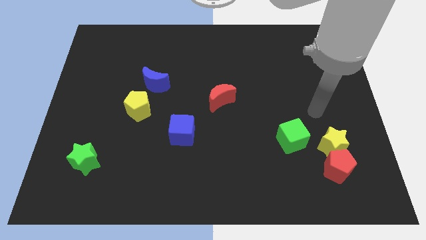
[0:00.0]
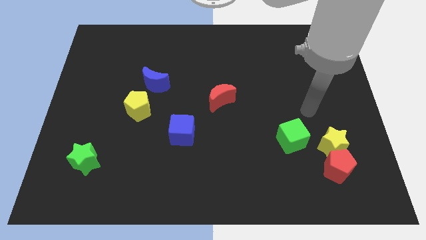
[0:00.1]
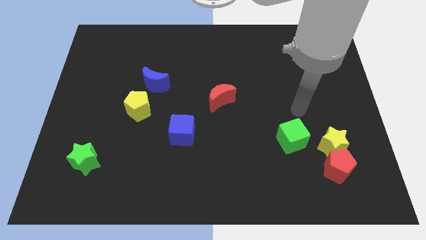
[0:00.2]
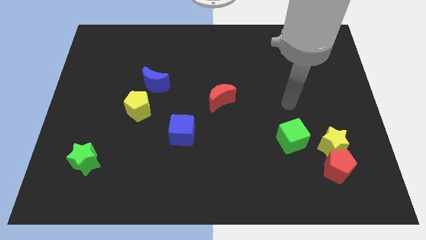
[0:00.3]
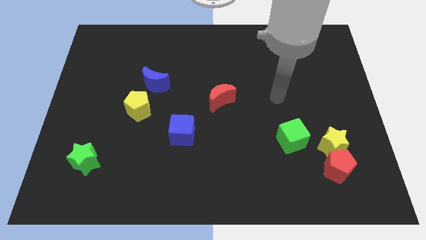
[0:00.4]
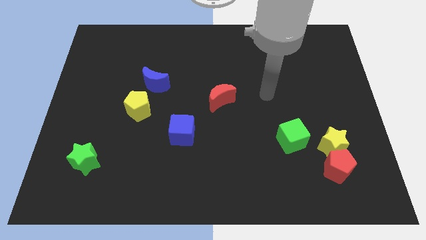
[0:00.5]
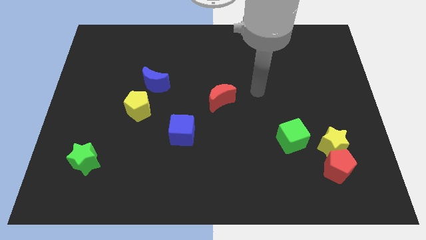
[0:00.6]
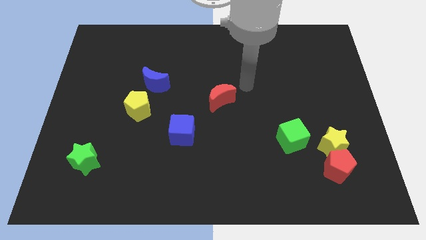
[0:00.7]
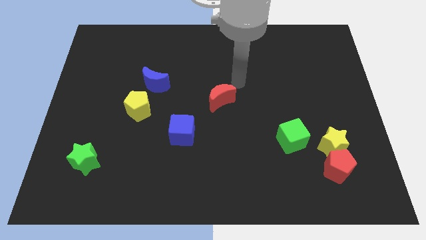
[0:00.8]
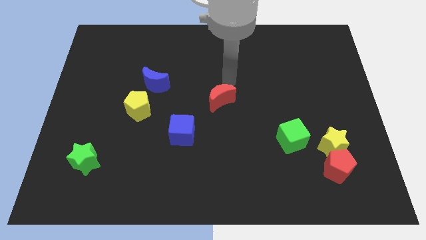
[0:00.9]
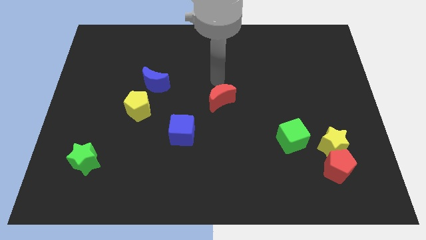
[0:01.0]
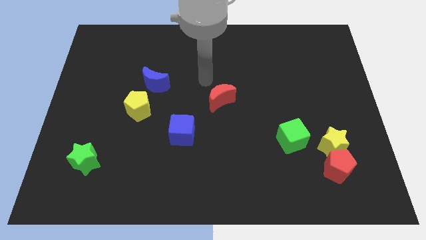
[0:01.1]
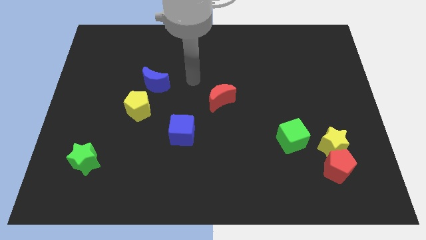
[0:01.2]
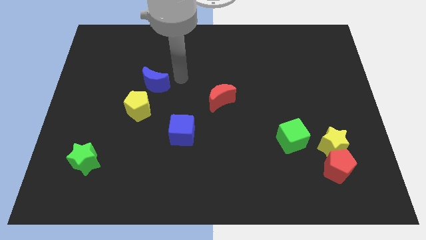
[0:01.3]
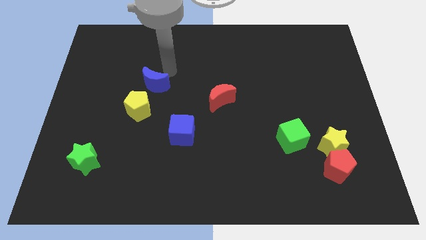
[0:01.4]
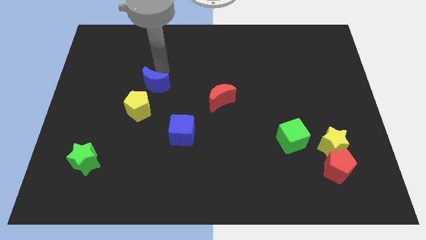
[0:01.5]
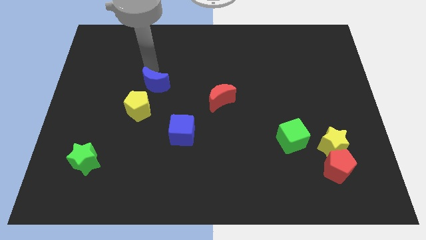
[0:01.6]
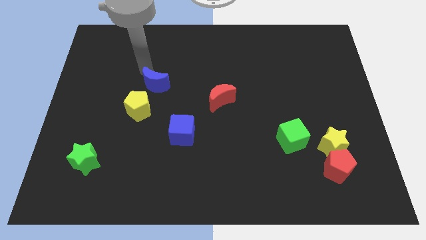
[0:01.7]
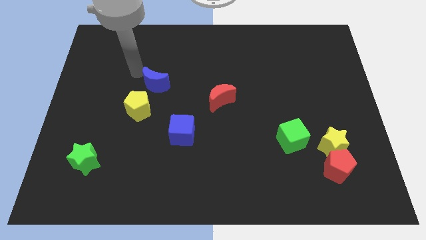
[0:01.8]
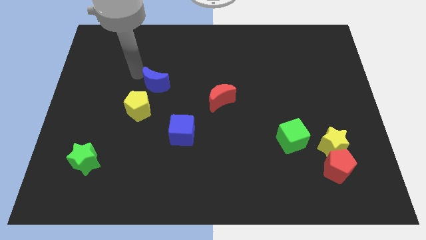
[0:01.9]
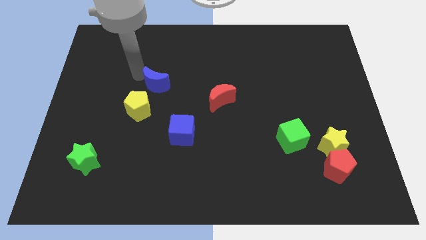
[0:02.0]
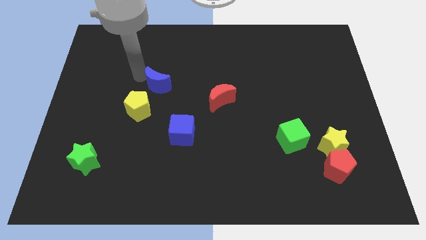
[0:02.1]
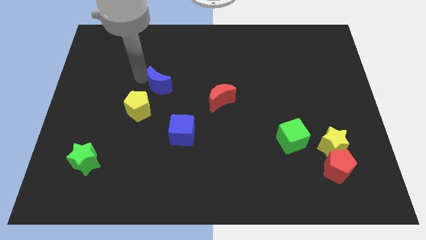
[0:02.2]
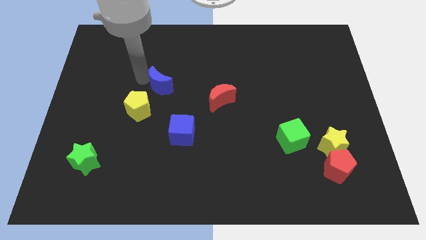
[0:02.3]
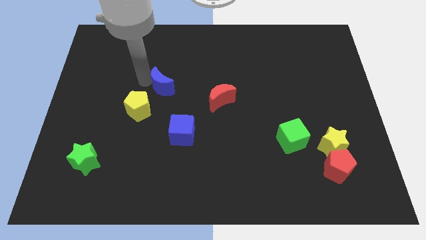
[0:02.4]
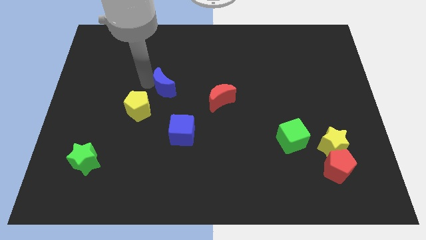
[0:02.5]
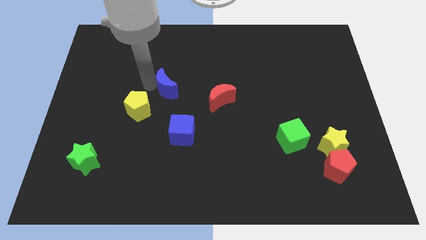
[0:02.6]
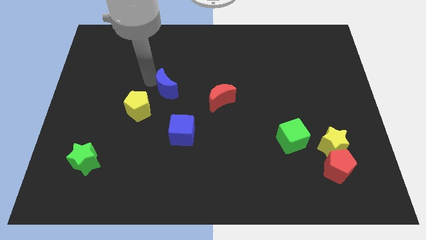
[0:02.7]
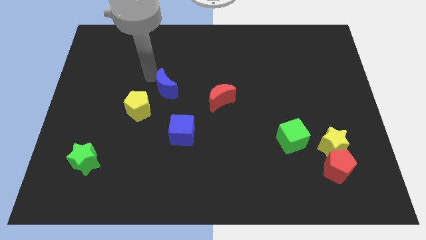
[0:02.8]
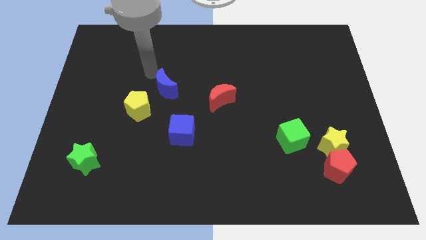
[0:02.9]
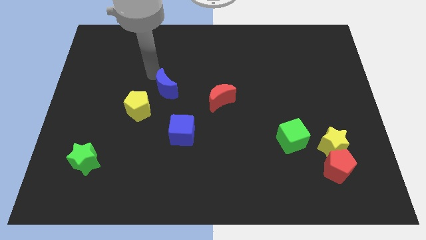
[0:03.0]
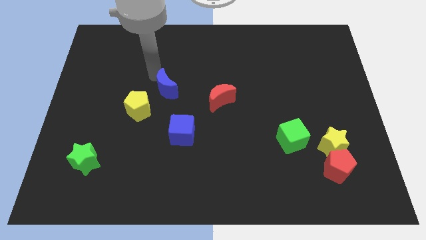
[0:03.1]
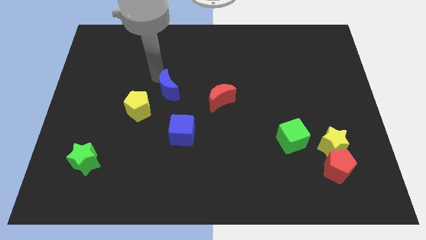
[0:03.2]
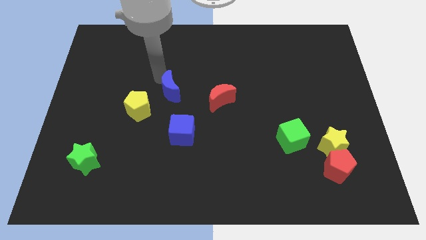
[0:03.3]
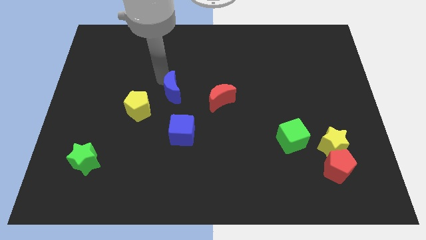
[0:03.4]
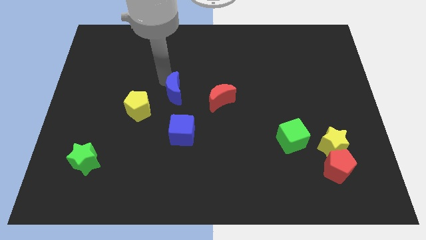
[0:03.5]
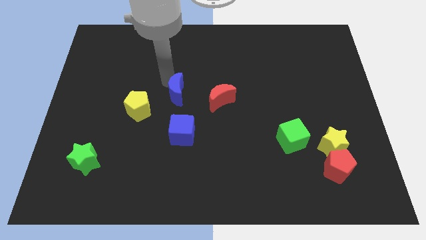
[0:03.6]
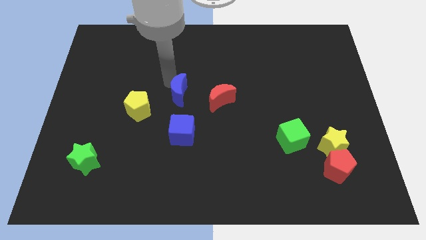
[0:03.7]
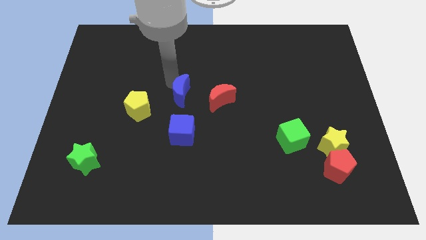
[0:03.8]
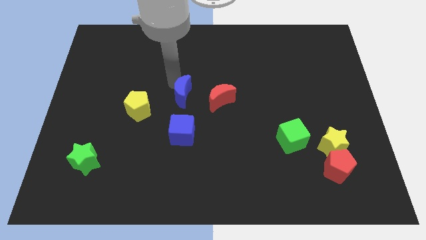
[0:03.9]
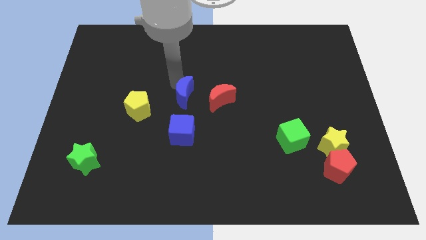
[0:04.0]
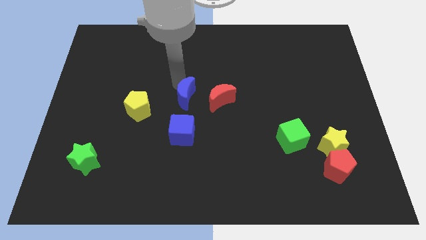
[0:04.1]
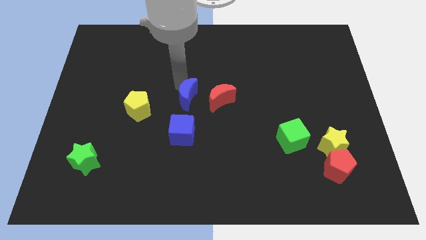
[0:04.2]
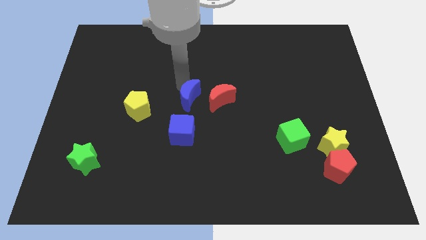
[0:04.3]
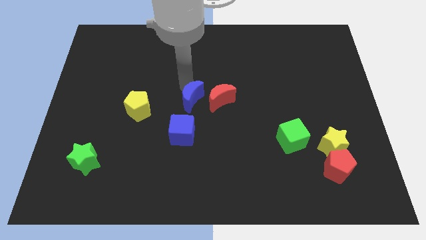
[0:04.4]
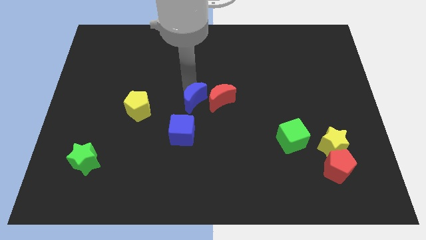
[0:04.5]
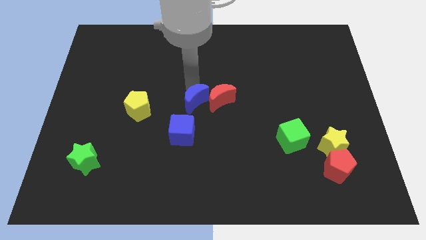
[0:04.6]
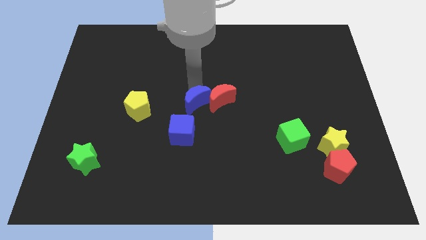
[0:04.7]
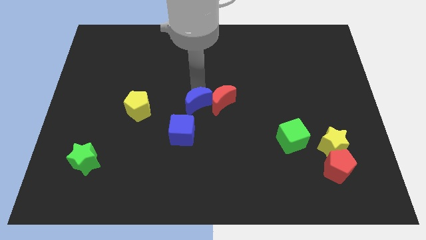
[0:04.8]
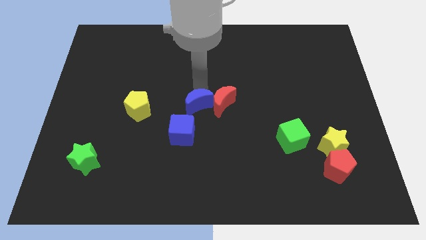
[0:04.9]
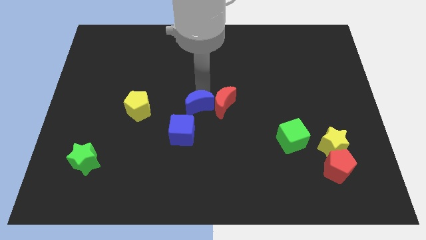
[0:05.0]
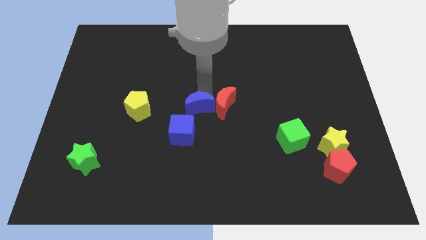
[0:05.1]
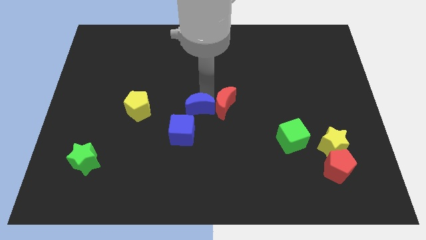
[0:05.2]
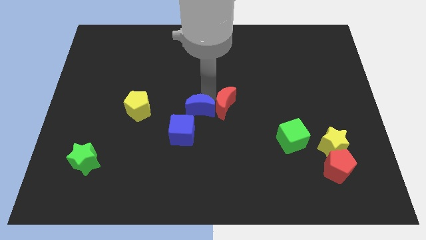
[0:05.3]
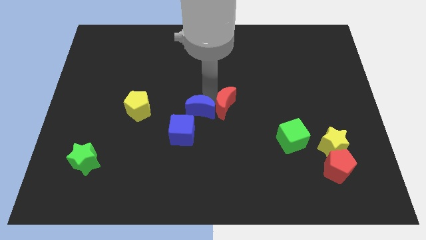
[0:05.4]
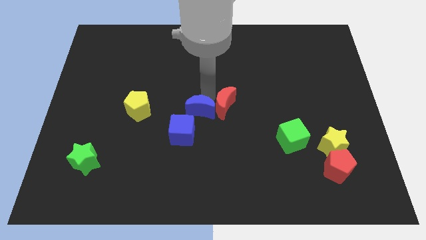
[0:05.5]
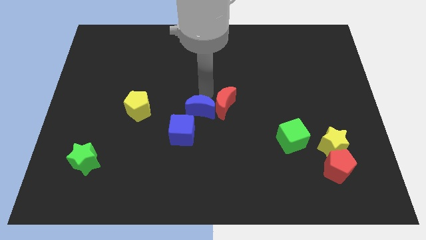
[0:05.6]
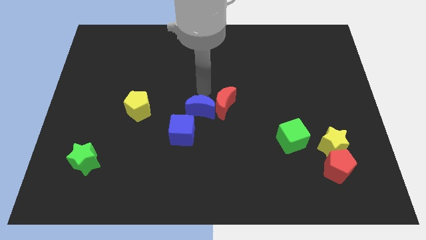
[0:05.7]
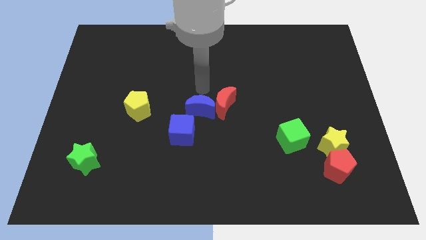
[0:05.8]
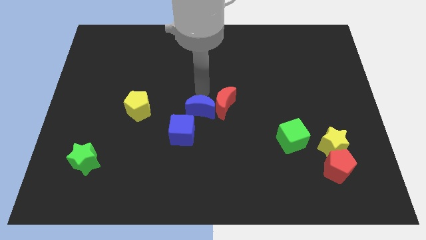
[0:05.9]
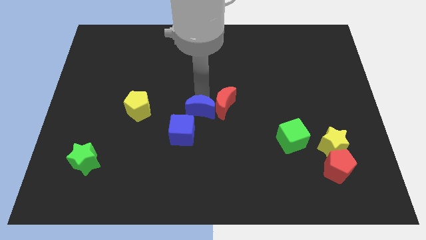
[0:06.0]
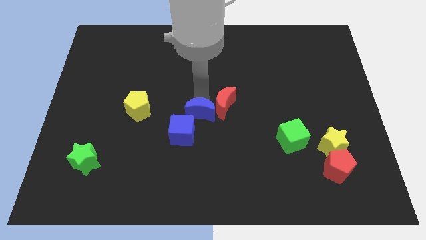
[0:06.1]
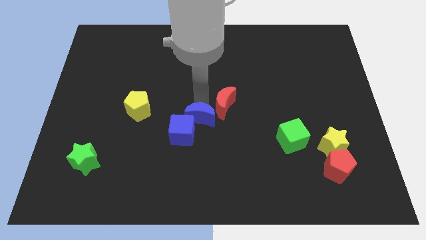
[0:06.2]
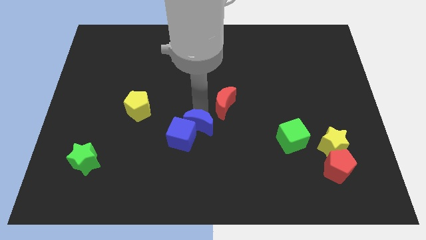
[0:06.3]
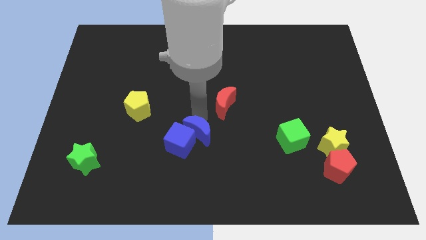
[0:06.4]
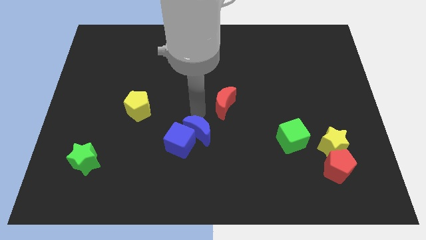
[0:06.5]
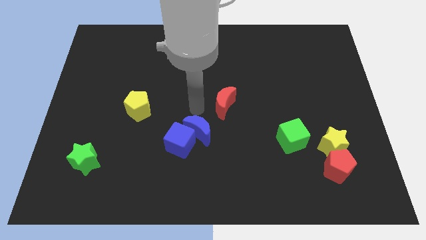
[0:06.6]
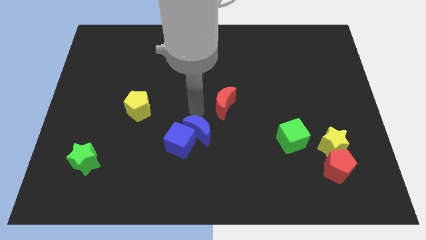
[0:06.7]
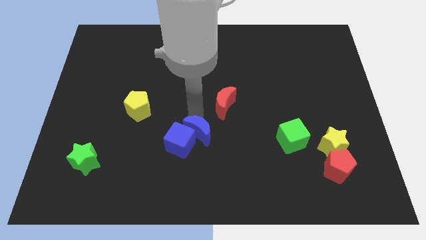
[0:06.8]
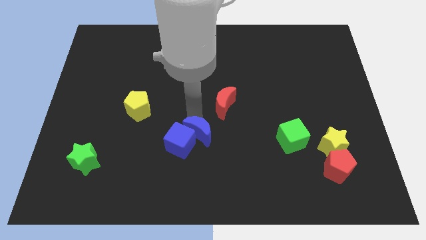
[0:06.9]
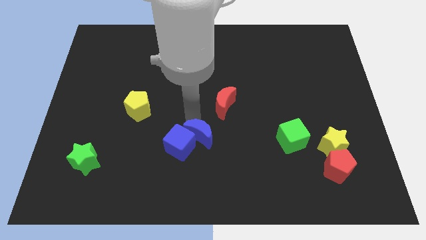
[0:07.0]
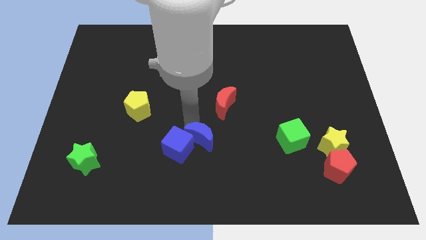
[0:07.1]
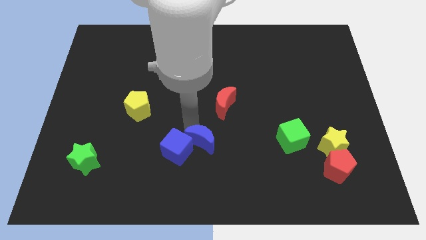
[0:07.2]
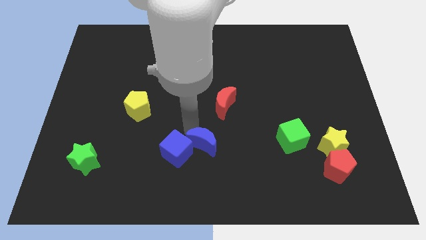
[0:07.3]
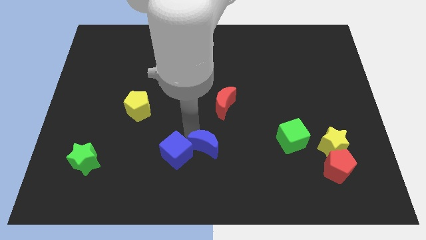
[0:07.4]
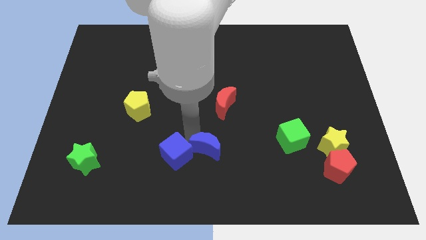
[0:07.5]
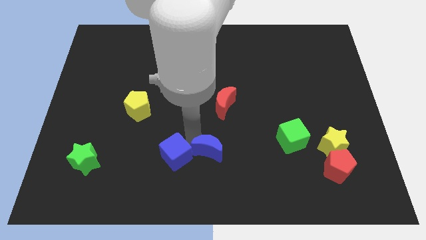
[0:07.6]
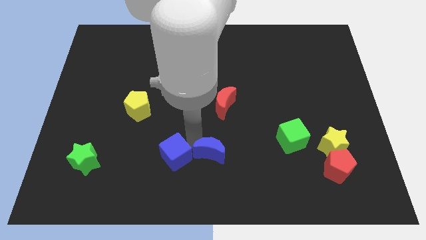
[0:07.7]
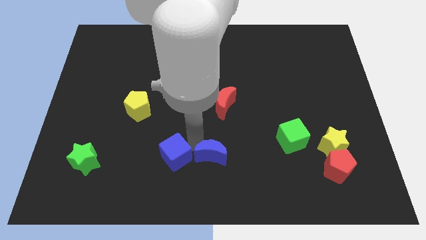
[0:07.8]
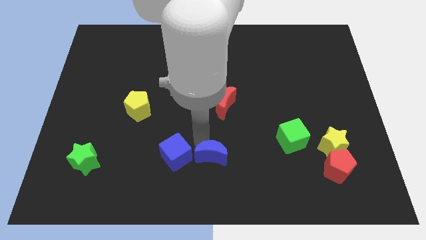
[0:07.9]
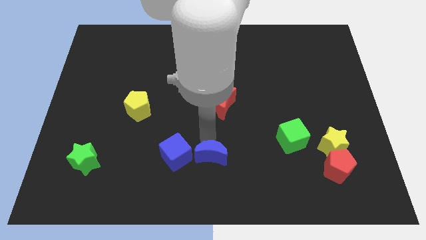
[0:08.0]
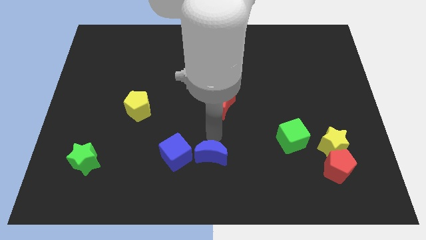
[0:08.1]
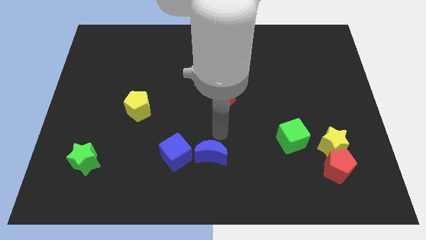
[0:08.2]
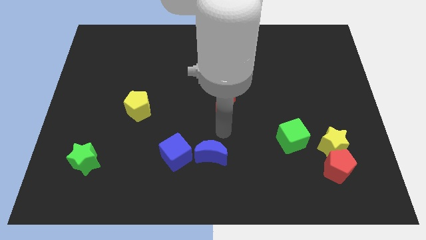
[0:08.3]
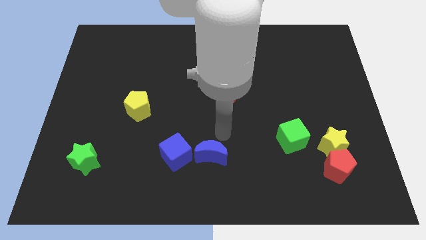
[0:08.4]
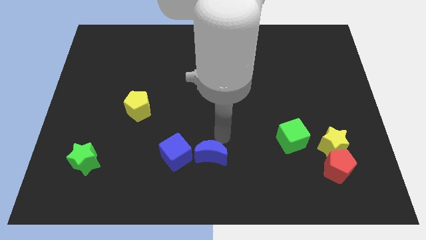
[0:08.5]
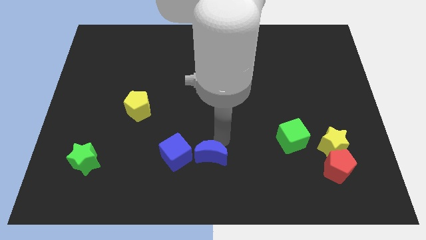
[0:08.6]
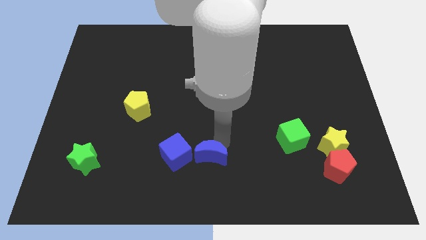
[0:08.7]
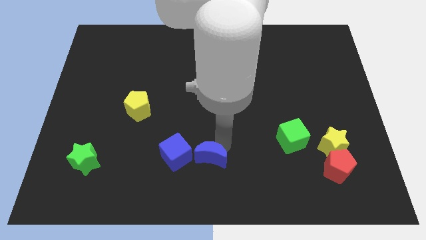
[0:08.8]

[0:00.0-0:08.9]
push the blue moon diagonally down and to the right of the blue cube
